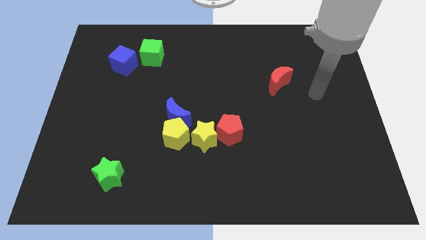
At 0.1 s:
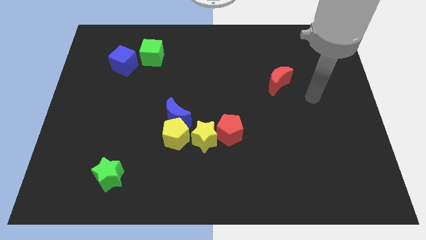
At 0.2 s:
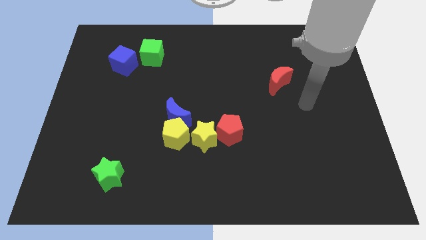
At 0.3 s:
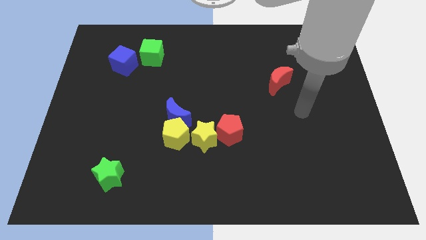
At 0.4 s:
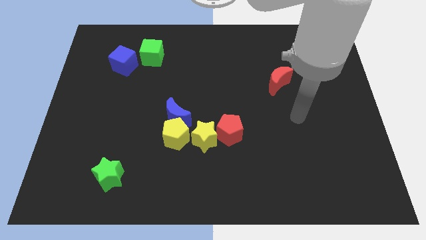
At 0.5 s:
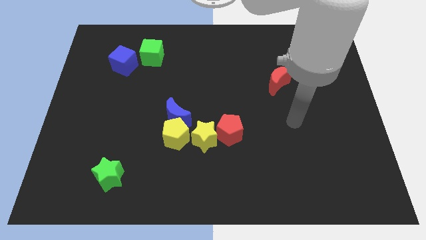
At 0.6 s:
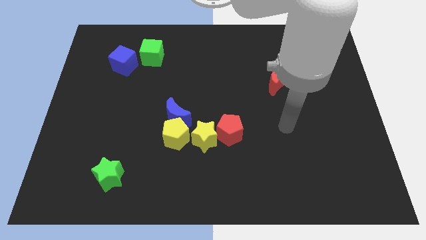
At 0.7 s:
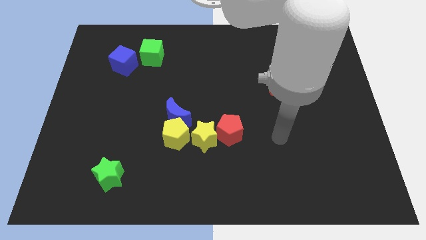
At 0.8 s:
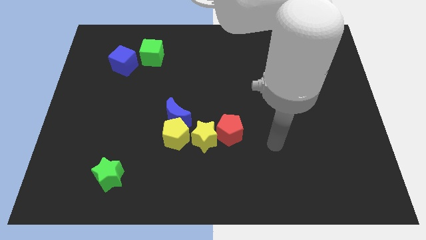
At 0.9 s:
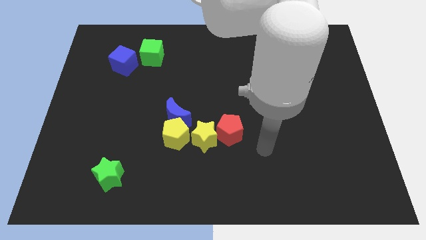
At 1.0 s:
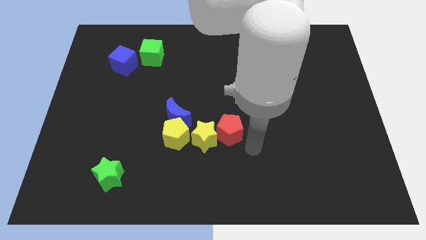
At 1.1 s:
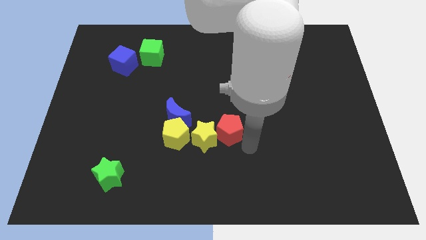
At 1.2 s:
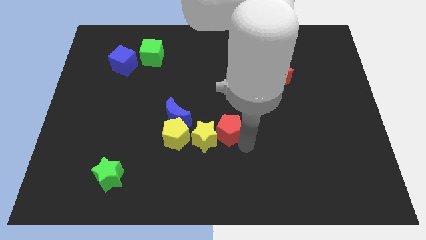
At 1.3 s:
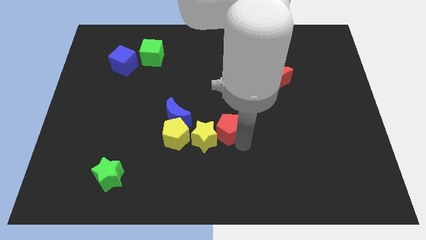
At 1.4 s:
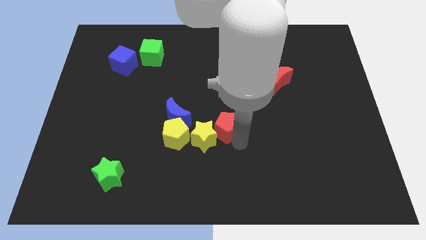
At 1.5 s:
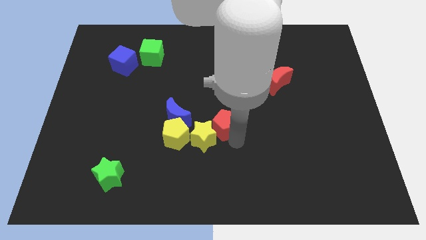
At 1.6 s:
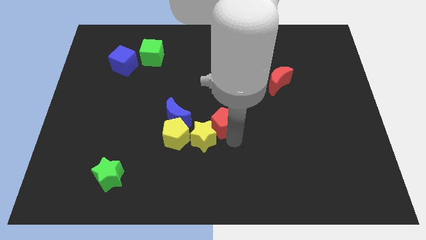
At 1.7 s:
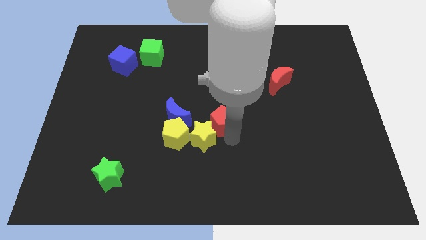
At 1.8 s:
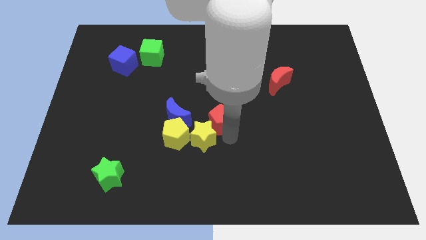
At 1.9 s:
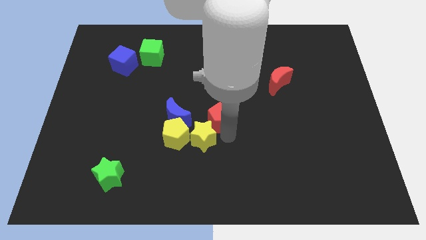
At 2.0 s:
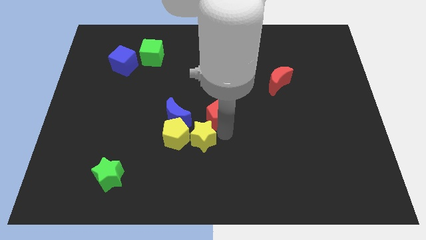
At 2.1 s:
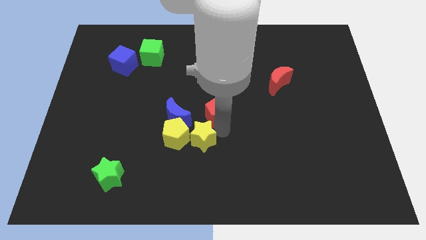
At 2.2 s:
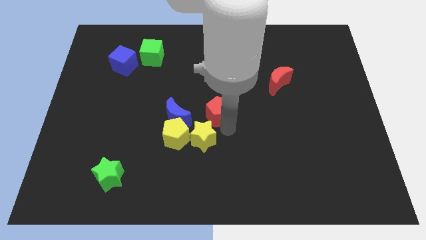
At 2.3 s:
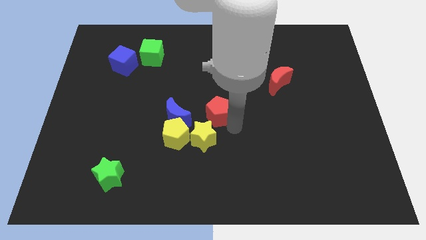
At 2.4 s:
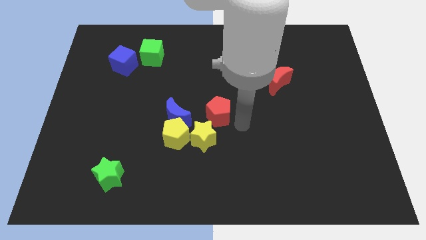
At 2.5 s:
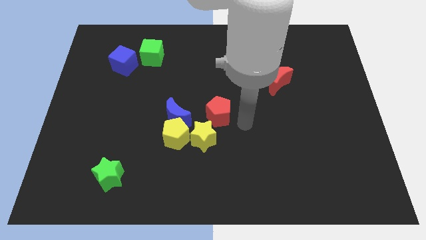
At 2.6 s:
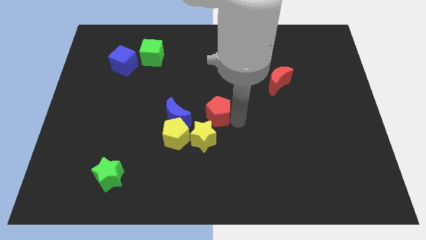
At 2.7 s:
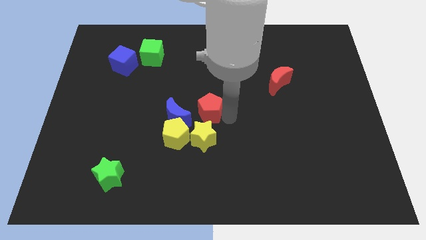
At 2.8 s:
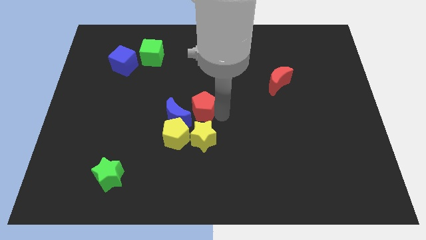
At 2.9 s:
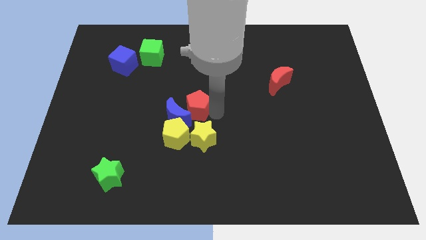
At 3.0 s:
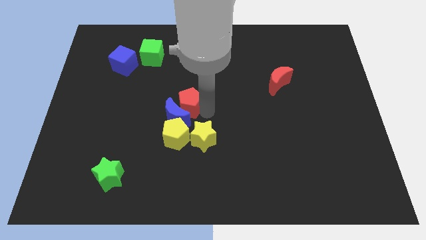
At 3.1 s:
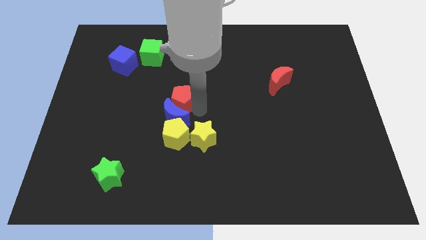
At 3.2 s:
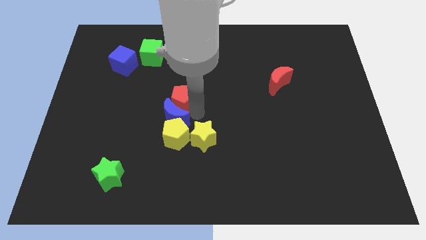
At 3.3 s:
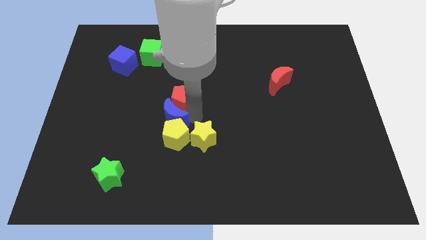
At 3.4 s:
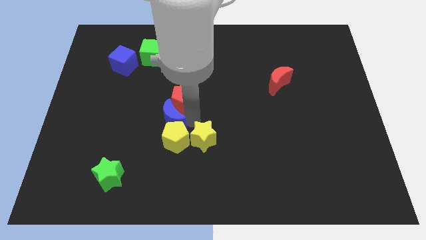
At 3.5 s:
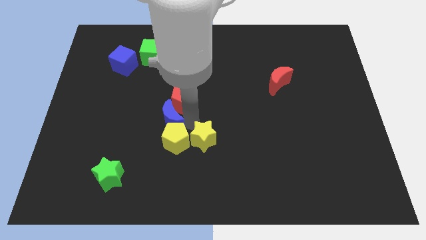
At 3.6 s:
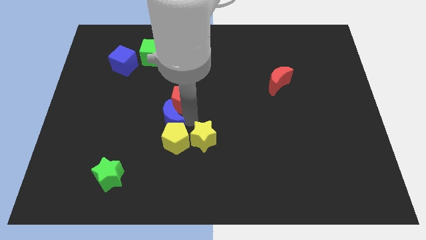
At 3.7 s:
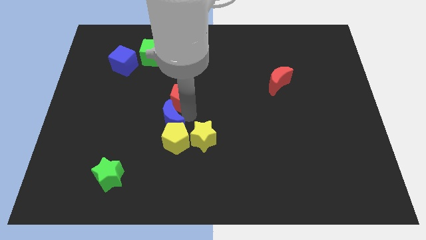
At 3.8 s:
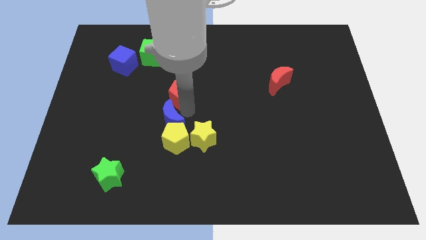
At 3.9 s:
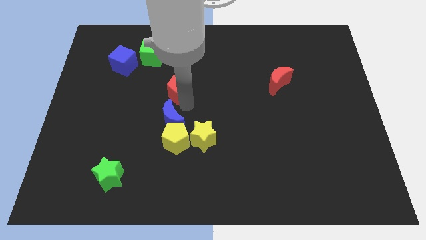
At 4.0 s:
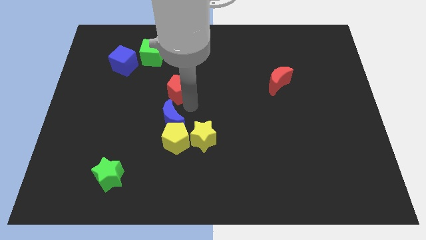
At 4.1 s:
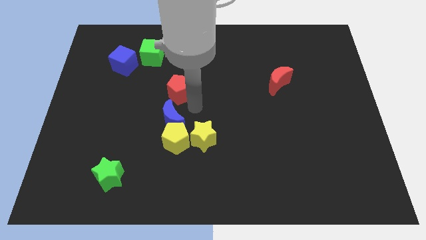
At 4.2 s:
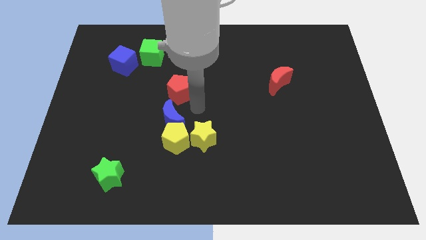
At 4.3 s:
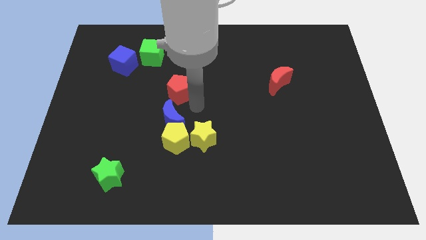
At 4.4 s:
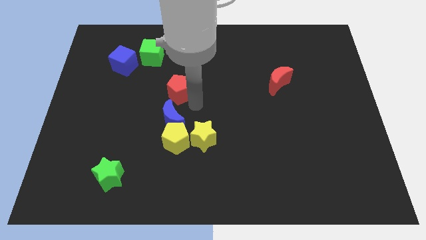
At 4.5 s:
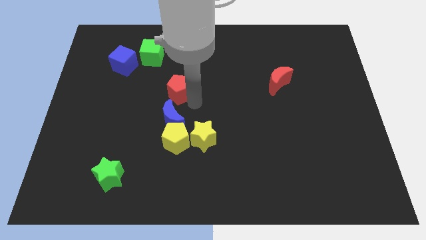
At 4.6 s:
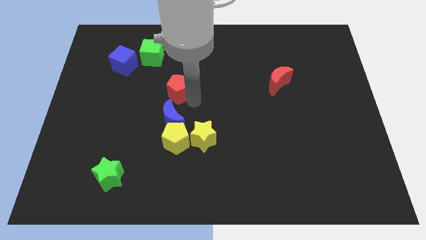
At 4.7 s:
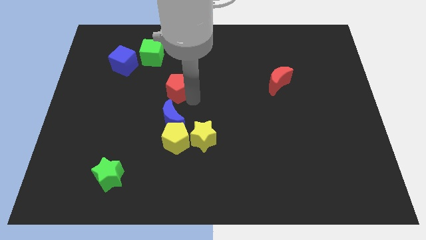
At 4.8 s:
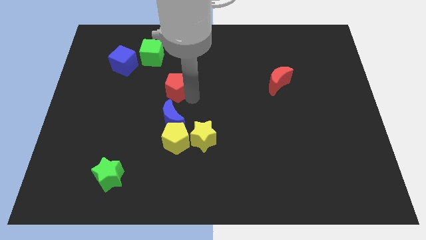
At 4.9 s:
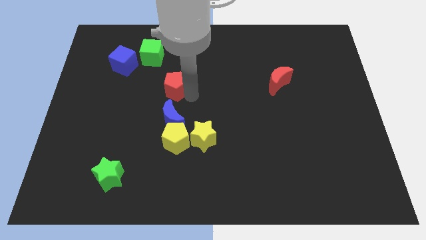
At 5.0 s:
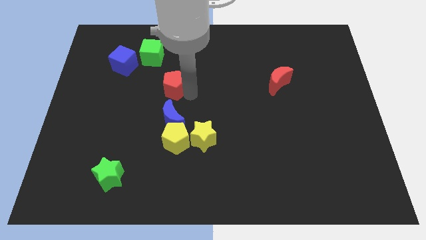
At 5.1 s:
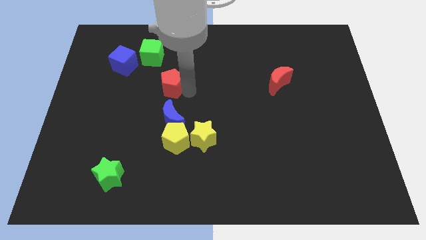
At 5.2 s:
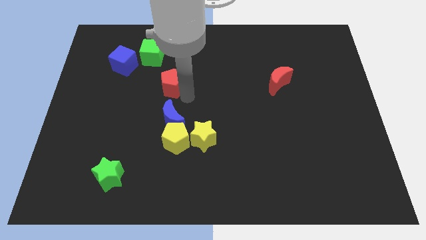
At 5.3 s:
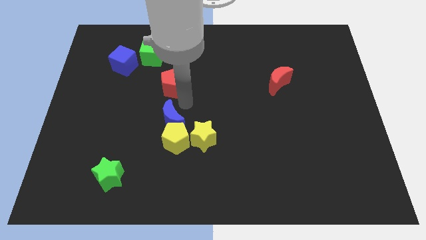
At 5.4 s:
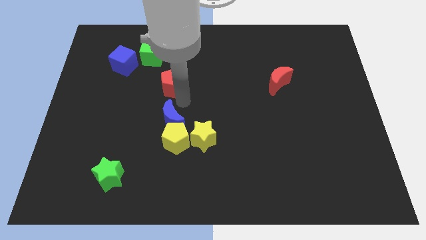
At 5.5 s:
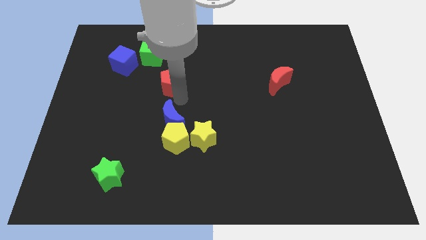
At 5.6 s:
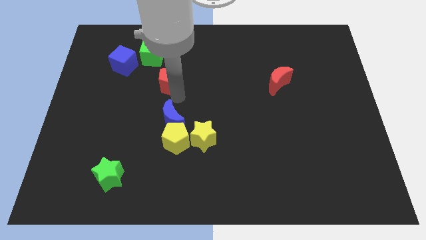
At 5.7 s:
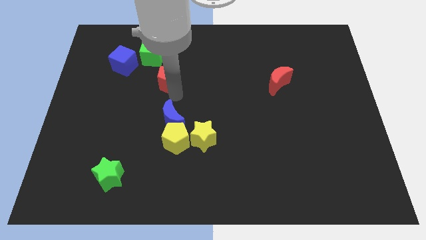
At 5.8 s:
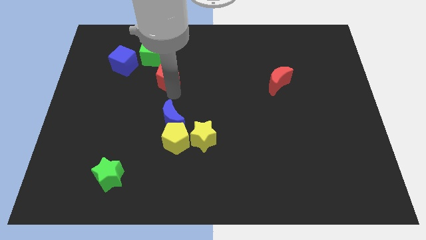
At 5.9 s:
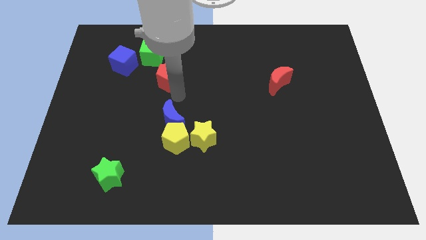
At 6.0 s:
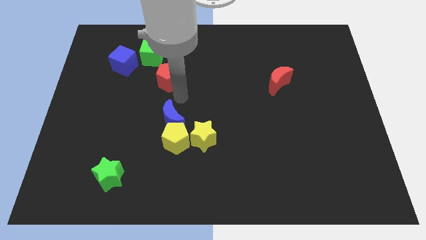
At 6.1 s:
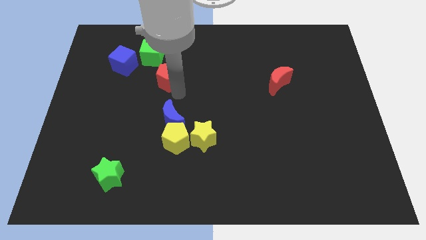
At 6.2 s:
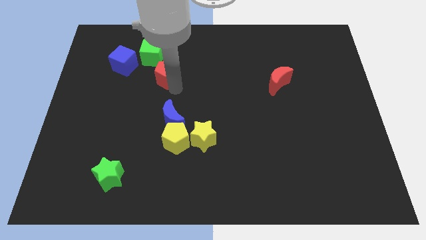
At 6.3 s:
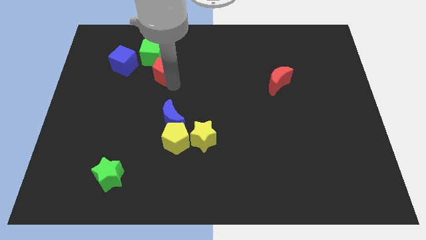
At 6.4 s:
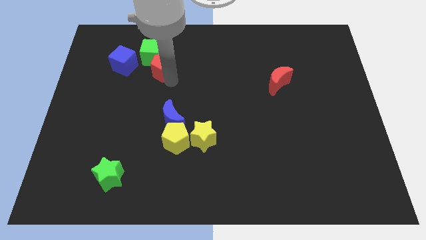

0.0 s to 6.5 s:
slide the red pentagon to the green cube

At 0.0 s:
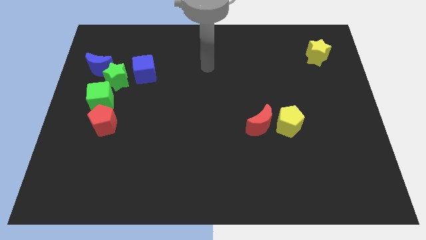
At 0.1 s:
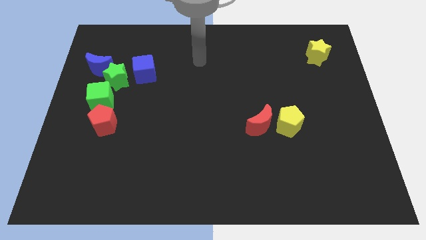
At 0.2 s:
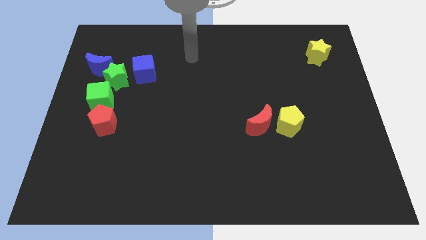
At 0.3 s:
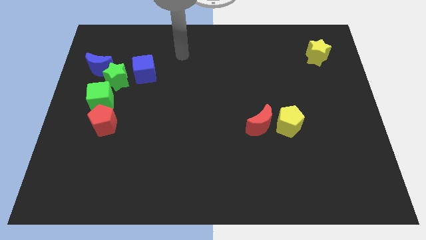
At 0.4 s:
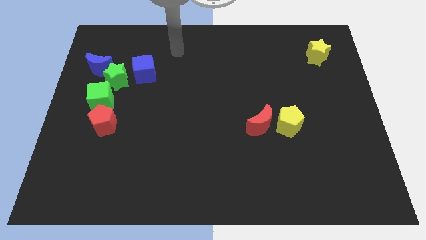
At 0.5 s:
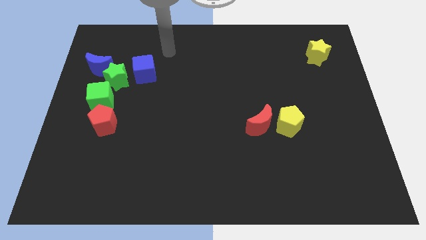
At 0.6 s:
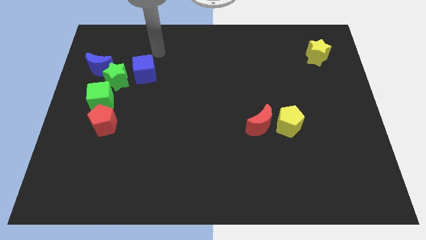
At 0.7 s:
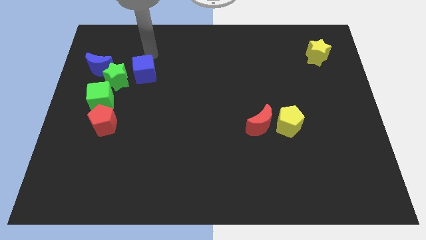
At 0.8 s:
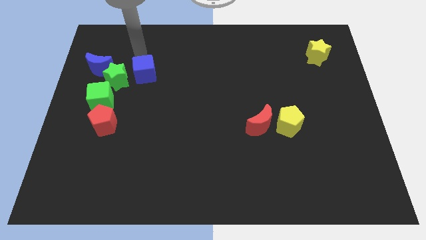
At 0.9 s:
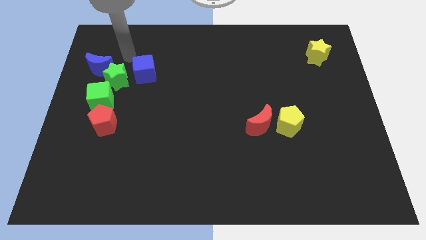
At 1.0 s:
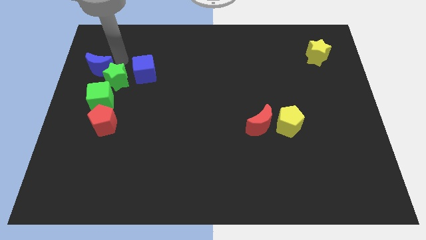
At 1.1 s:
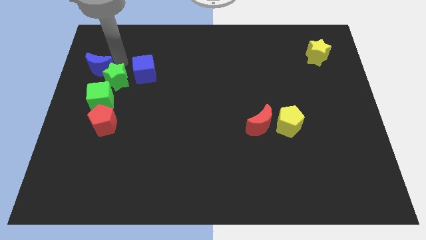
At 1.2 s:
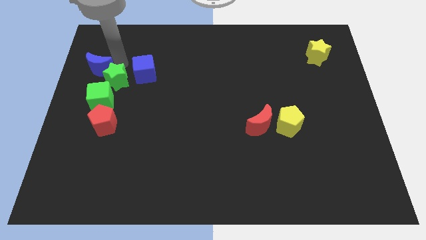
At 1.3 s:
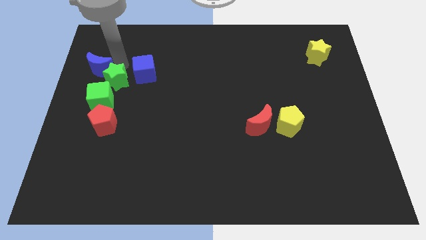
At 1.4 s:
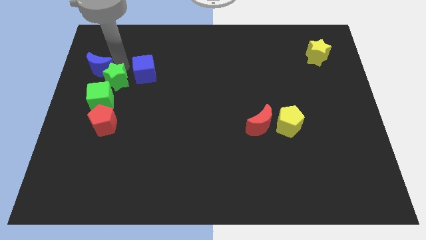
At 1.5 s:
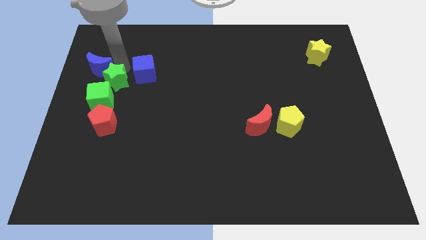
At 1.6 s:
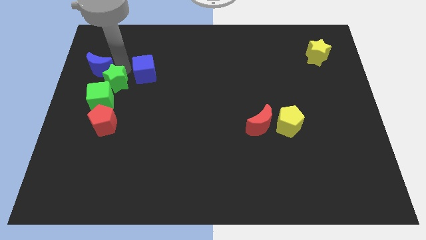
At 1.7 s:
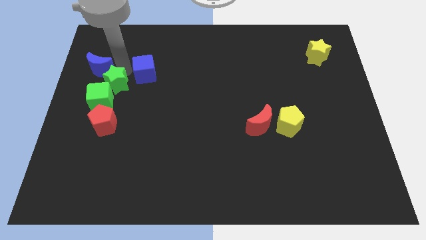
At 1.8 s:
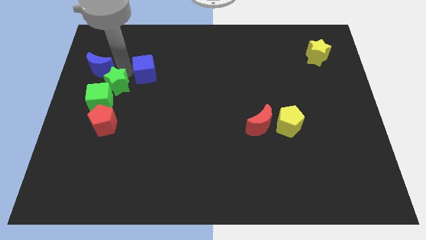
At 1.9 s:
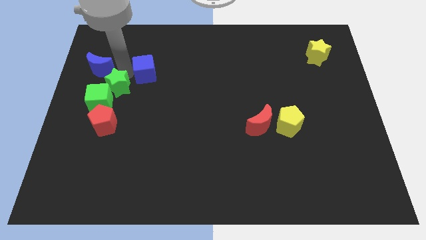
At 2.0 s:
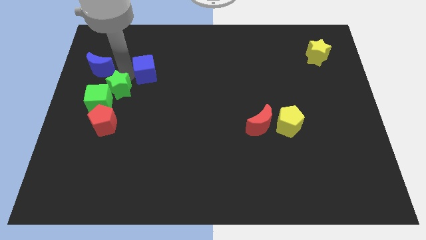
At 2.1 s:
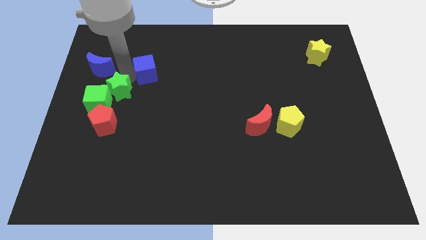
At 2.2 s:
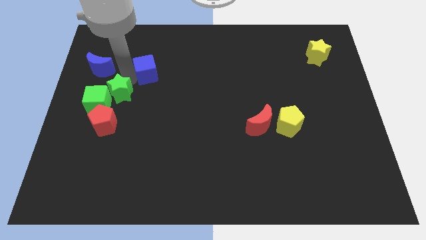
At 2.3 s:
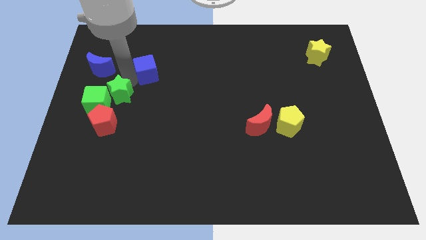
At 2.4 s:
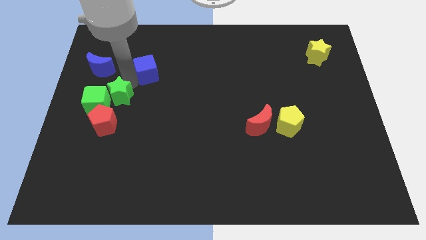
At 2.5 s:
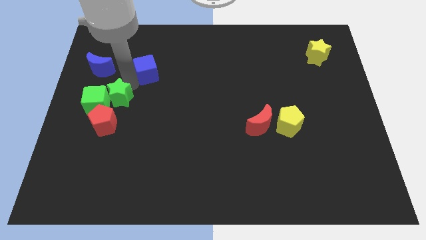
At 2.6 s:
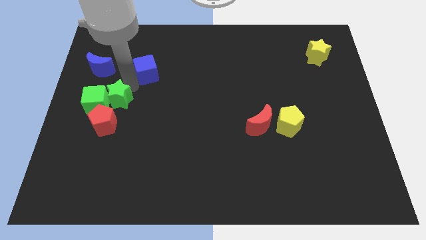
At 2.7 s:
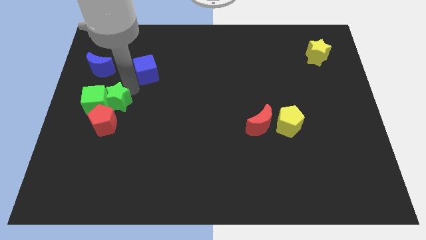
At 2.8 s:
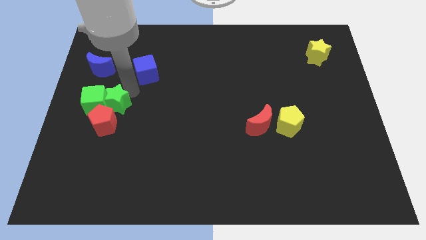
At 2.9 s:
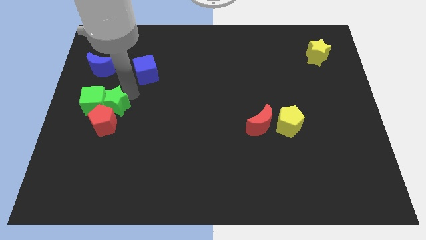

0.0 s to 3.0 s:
push the green star close to the red pentagon
